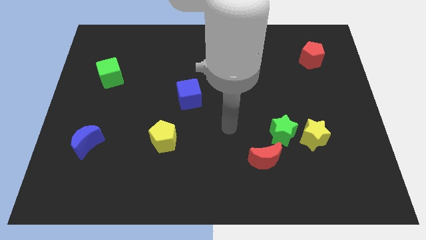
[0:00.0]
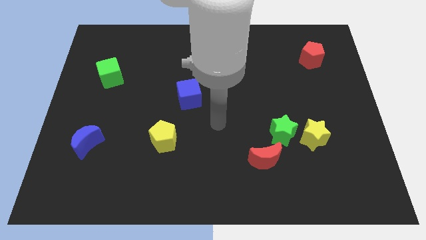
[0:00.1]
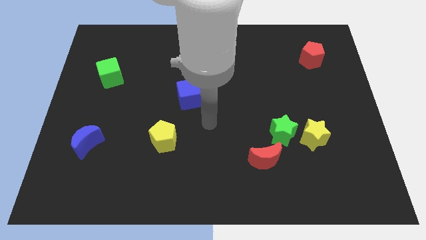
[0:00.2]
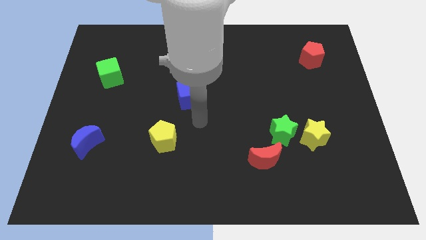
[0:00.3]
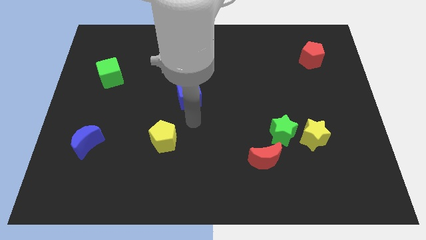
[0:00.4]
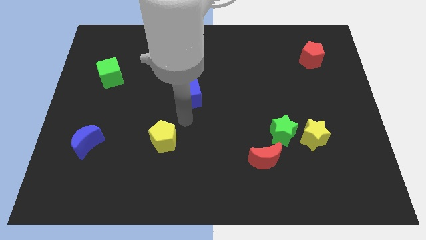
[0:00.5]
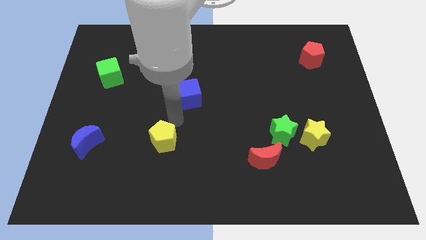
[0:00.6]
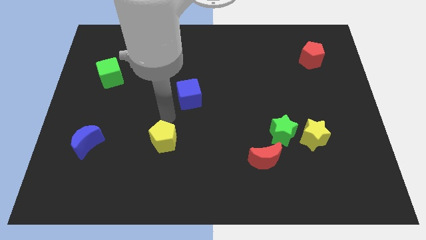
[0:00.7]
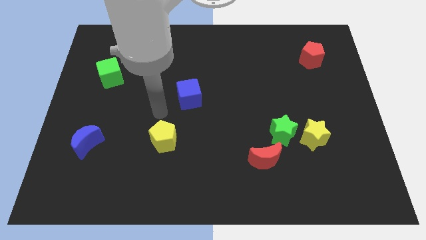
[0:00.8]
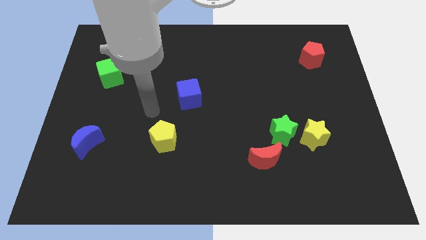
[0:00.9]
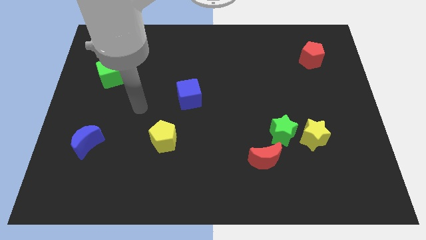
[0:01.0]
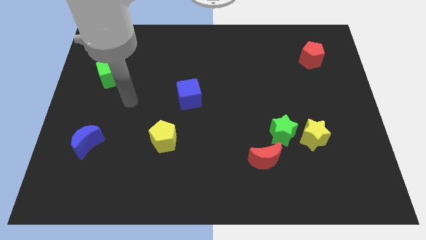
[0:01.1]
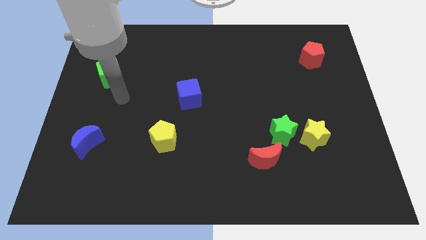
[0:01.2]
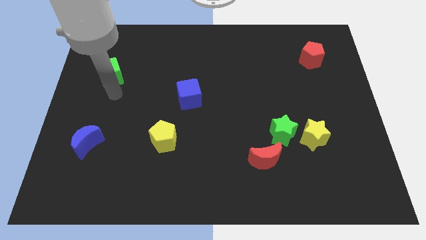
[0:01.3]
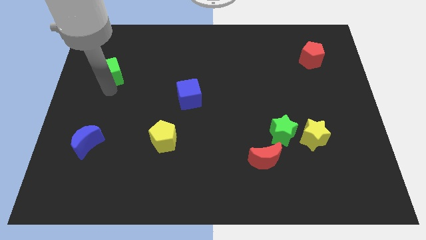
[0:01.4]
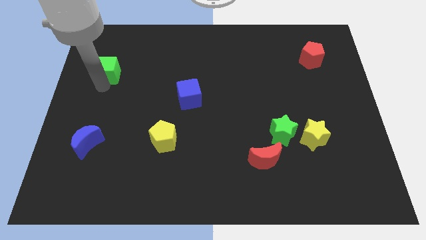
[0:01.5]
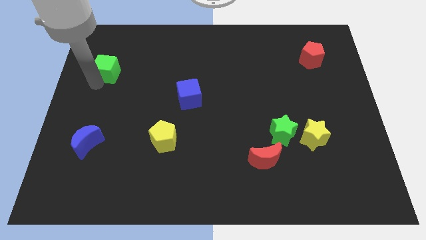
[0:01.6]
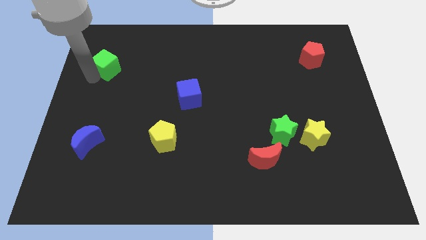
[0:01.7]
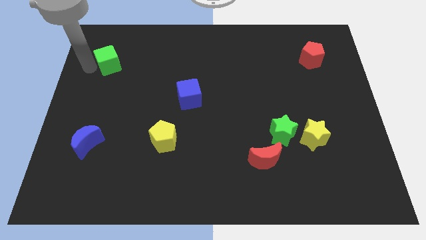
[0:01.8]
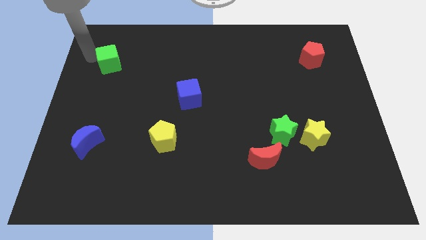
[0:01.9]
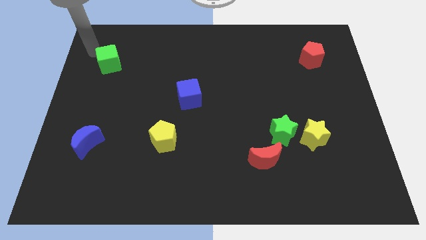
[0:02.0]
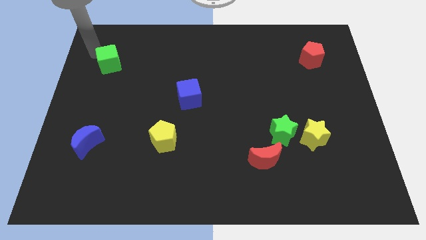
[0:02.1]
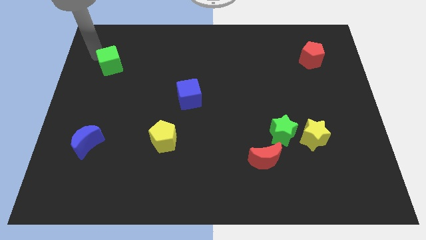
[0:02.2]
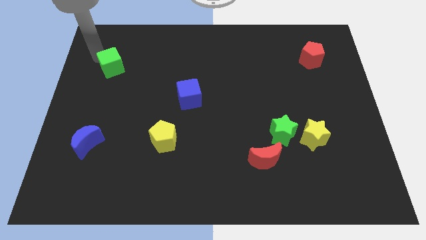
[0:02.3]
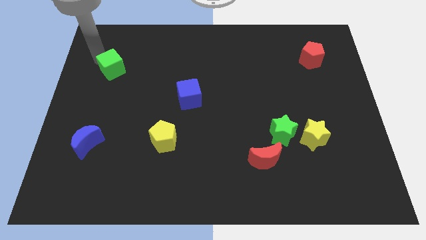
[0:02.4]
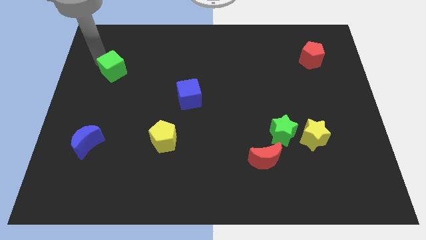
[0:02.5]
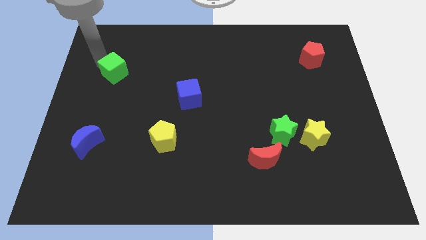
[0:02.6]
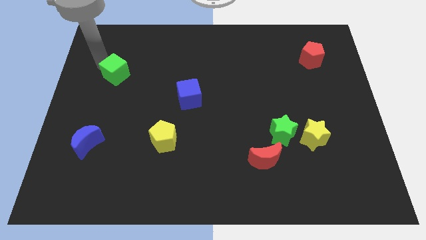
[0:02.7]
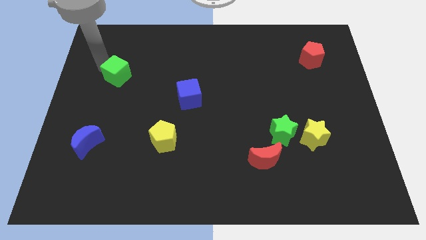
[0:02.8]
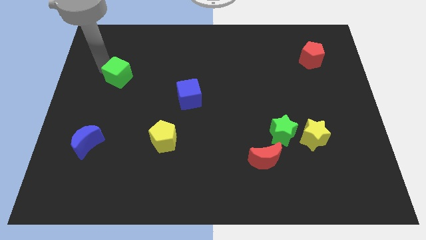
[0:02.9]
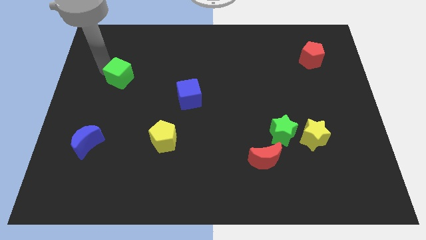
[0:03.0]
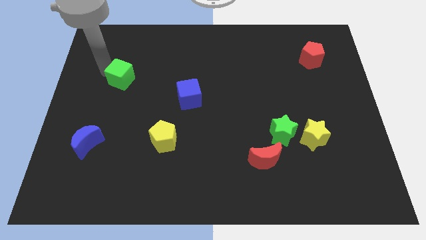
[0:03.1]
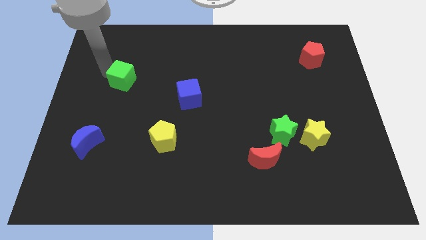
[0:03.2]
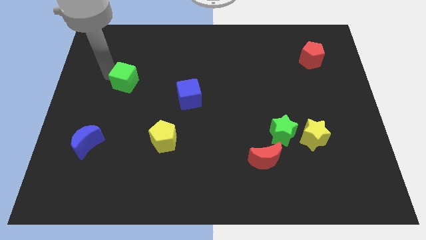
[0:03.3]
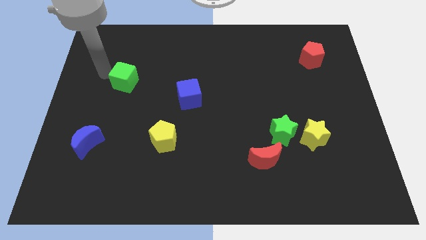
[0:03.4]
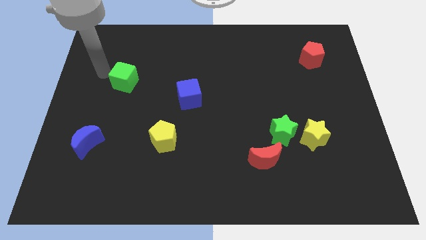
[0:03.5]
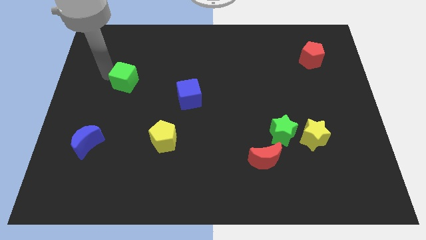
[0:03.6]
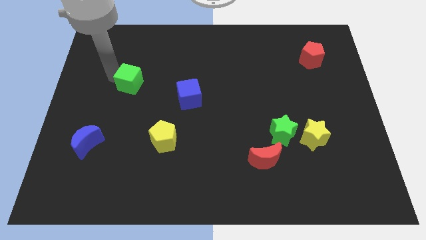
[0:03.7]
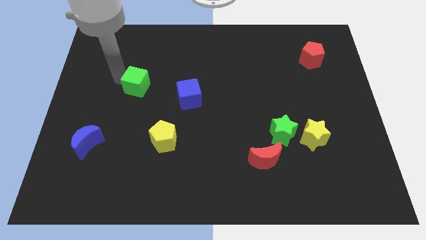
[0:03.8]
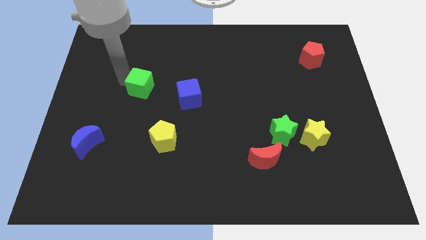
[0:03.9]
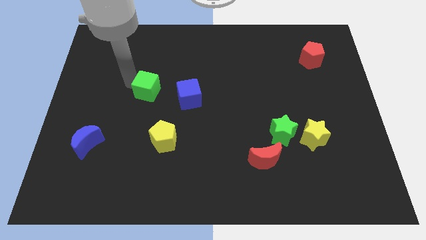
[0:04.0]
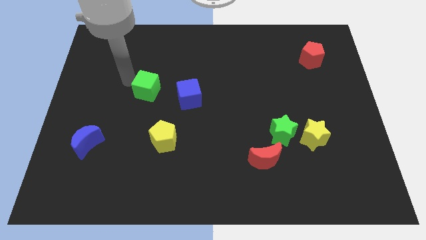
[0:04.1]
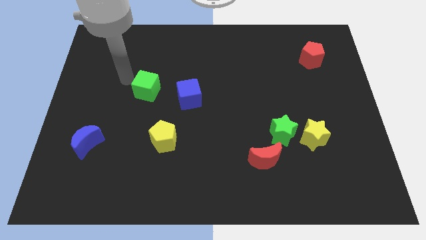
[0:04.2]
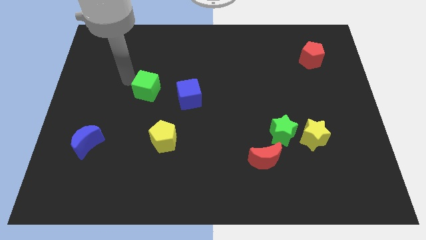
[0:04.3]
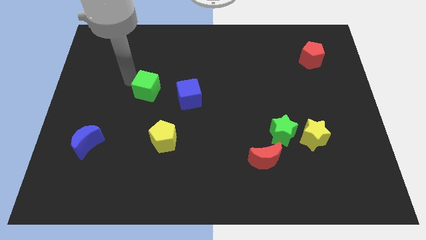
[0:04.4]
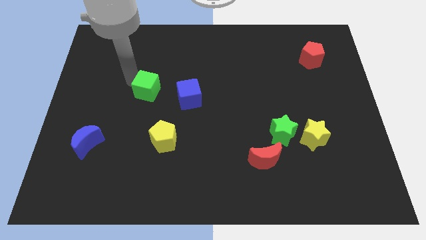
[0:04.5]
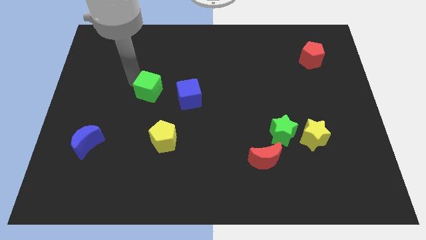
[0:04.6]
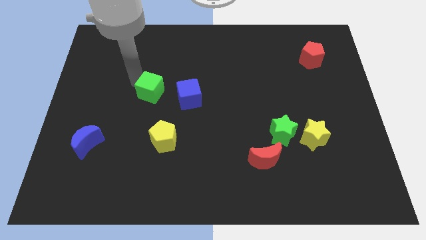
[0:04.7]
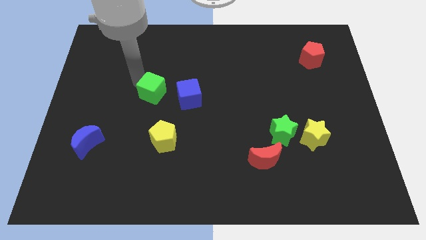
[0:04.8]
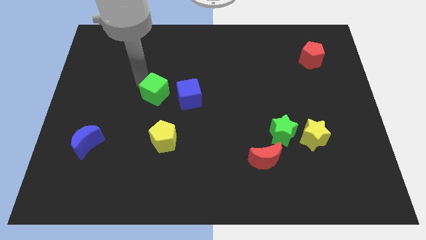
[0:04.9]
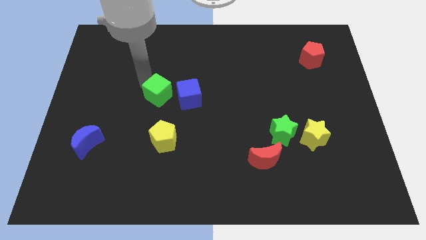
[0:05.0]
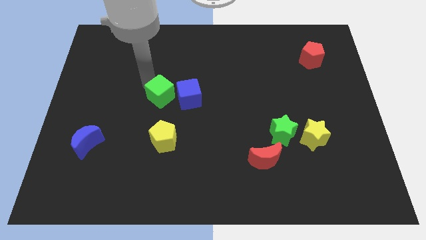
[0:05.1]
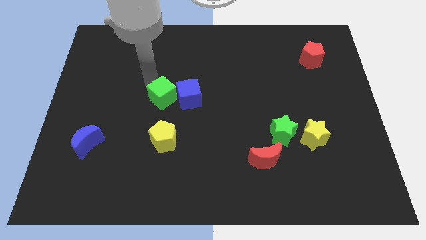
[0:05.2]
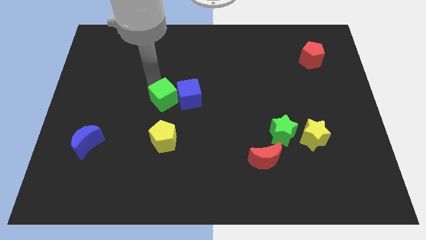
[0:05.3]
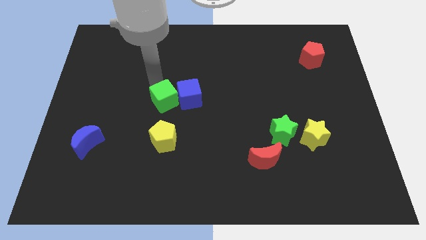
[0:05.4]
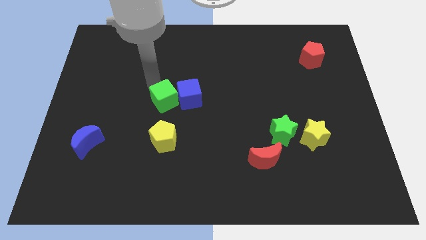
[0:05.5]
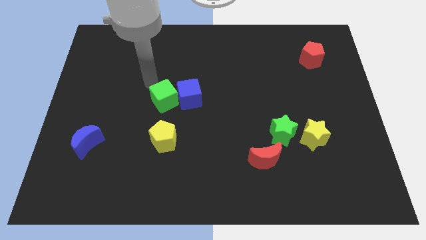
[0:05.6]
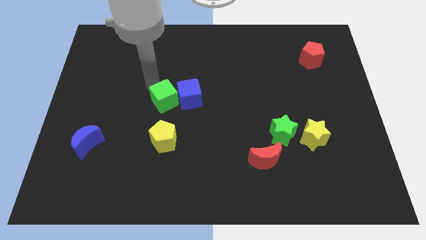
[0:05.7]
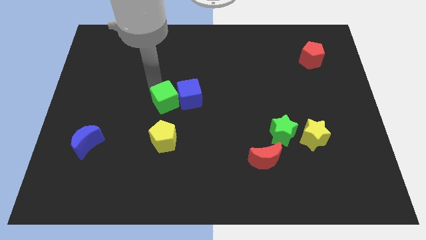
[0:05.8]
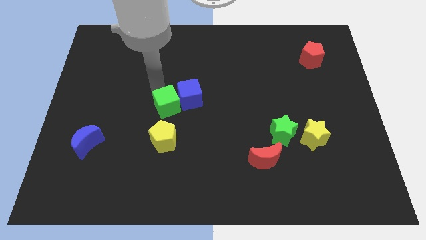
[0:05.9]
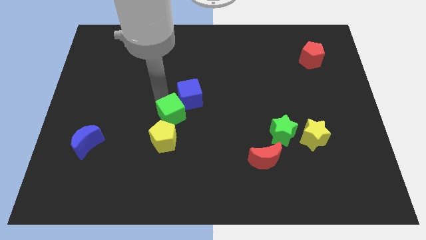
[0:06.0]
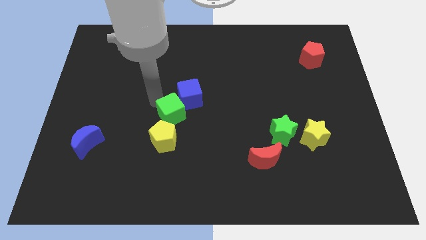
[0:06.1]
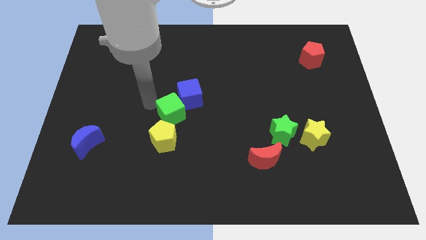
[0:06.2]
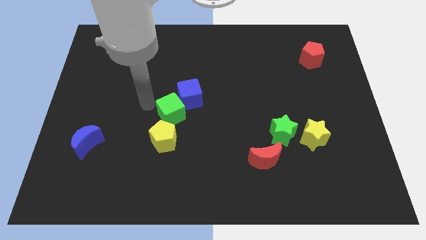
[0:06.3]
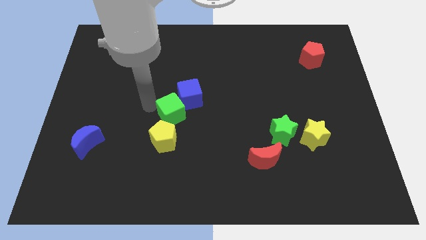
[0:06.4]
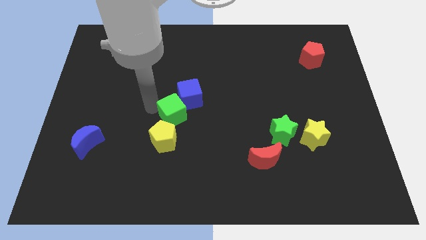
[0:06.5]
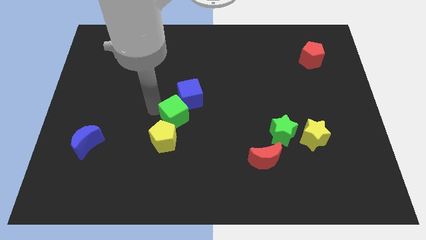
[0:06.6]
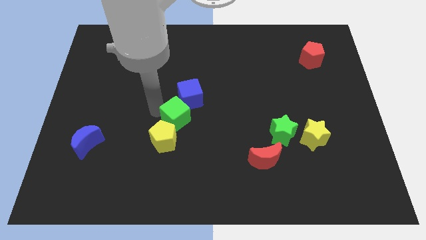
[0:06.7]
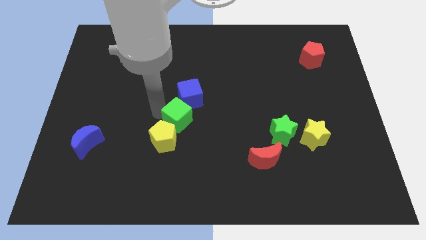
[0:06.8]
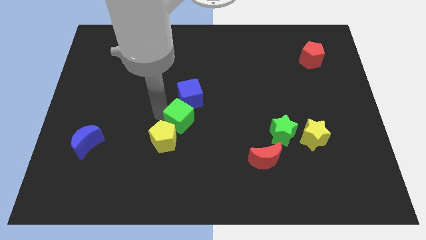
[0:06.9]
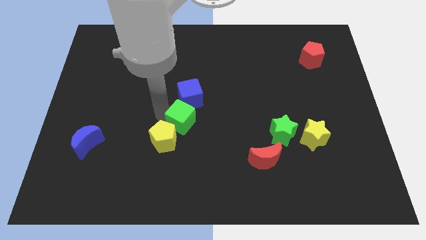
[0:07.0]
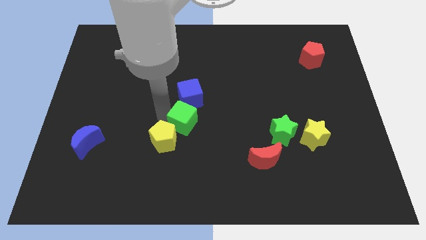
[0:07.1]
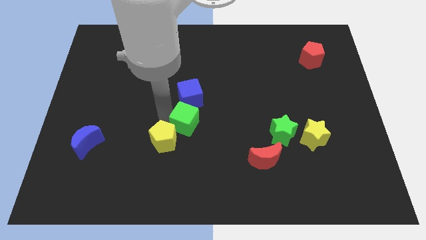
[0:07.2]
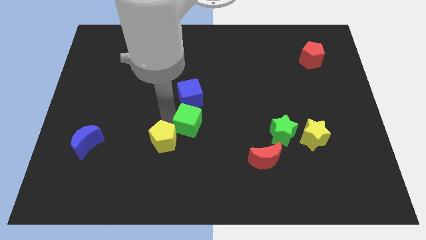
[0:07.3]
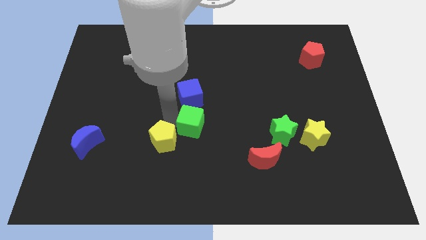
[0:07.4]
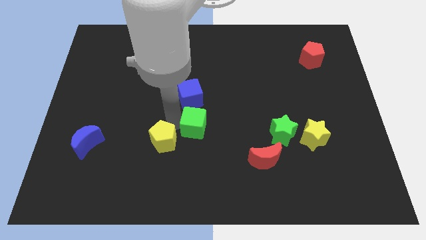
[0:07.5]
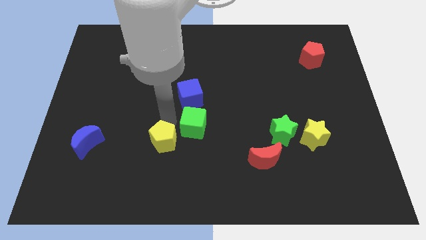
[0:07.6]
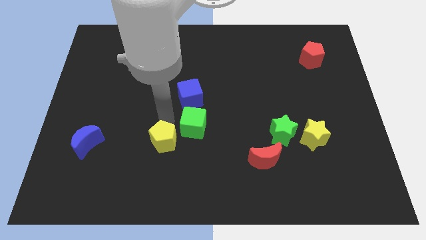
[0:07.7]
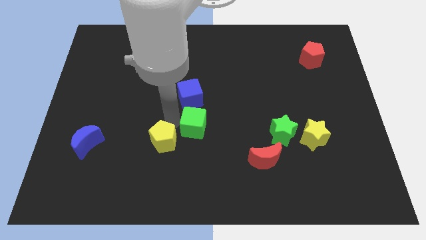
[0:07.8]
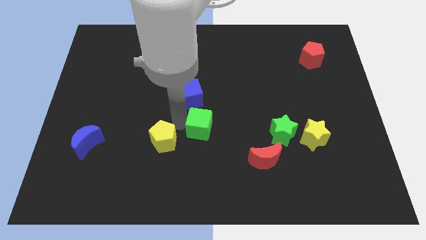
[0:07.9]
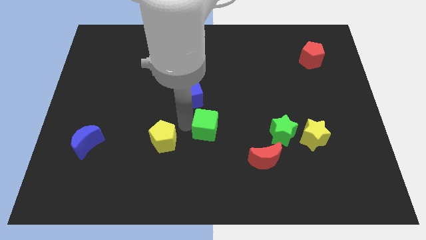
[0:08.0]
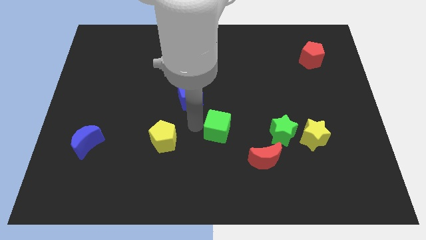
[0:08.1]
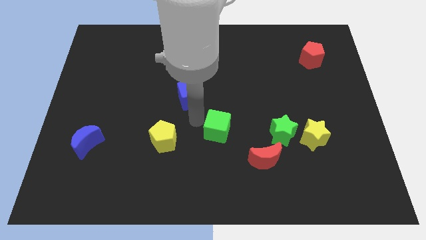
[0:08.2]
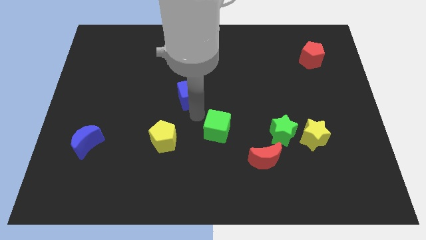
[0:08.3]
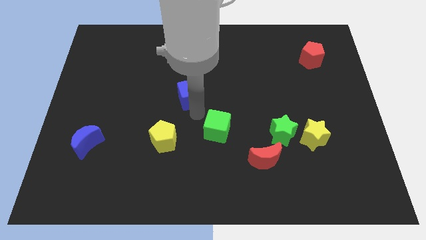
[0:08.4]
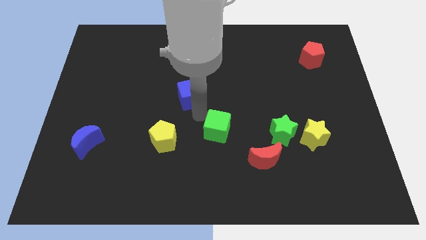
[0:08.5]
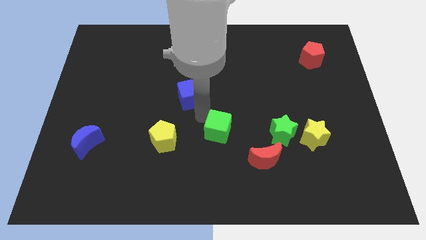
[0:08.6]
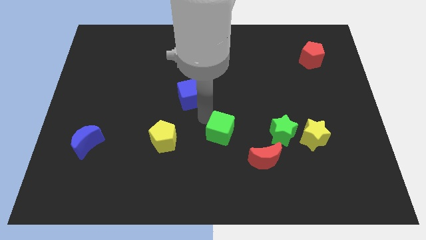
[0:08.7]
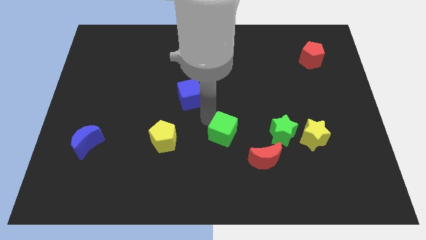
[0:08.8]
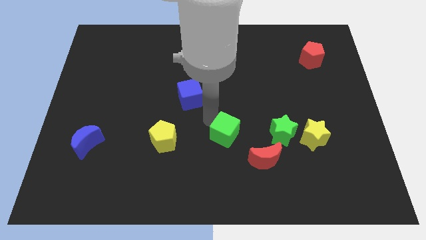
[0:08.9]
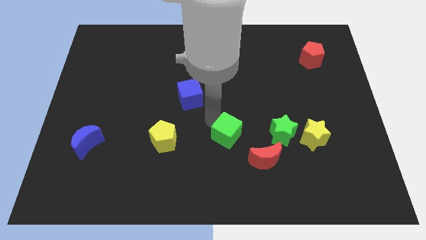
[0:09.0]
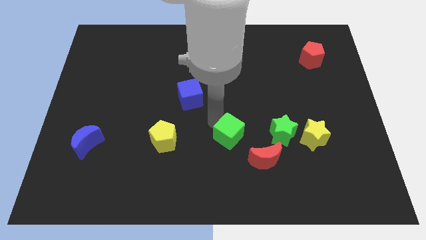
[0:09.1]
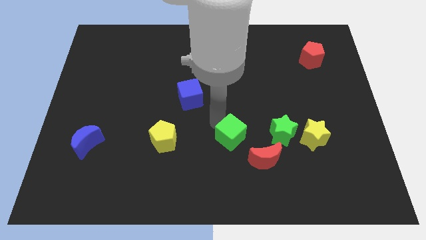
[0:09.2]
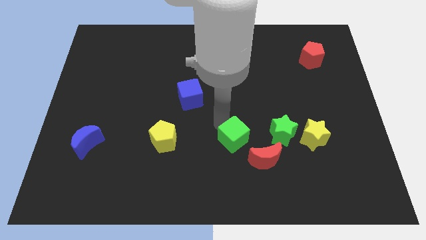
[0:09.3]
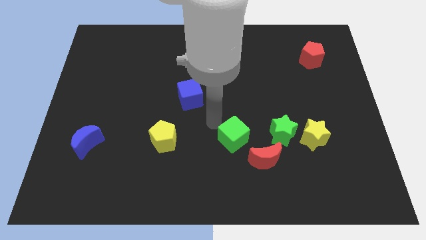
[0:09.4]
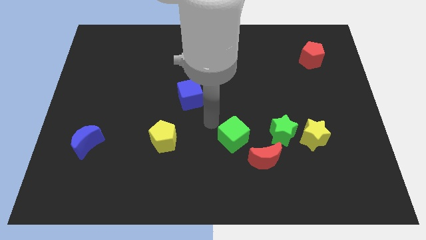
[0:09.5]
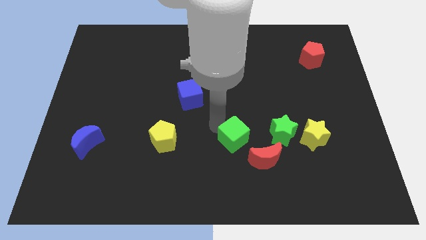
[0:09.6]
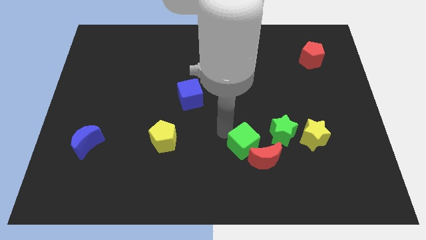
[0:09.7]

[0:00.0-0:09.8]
push the green cube to the red moon
